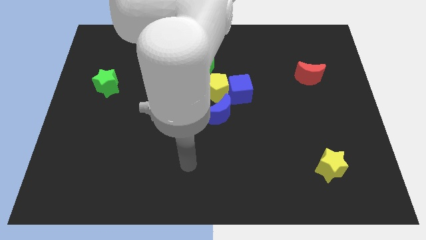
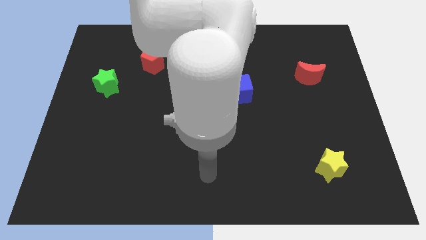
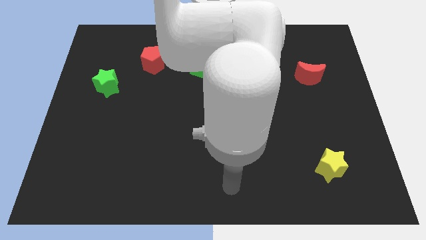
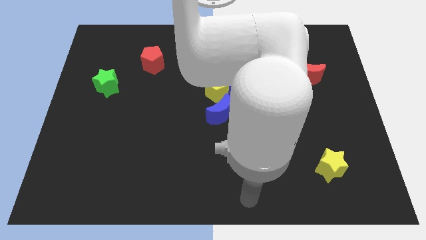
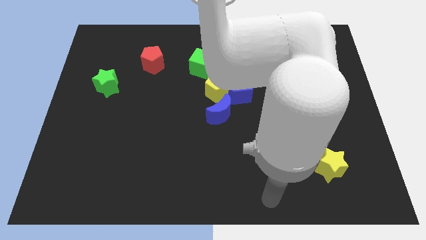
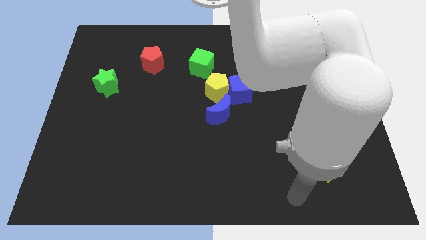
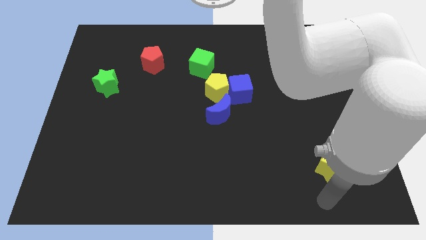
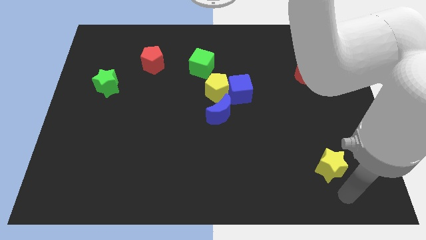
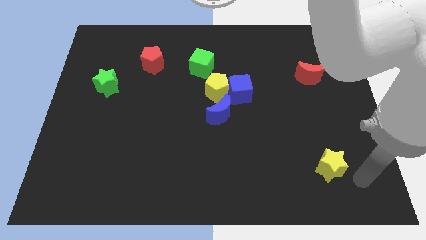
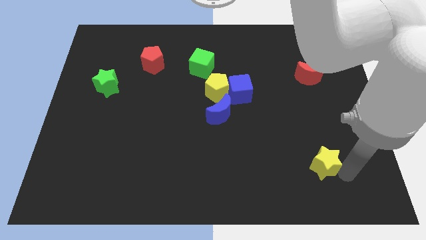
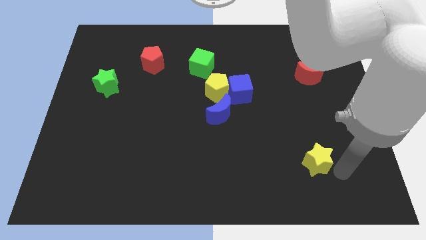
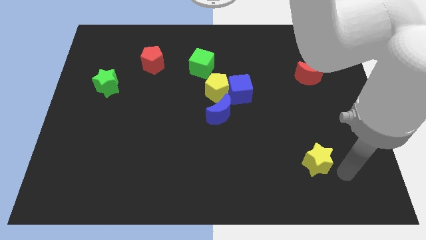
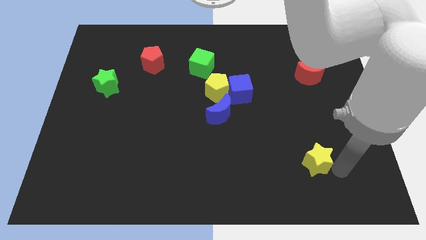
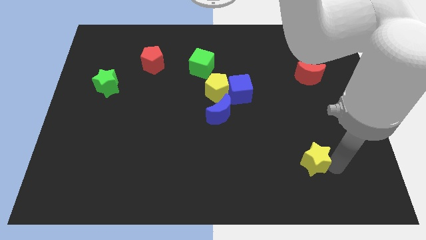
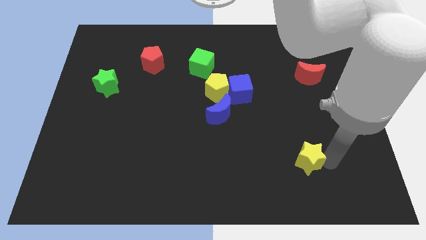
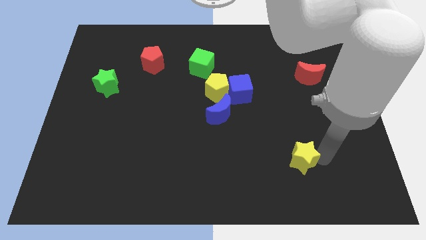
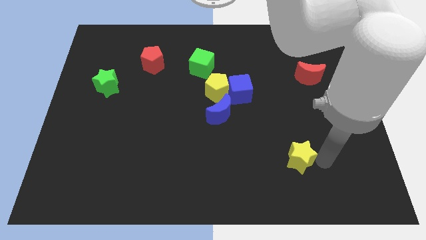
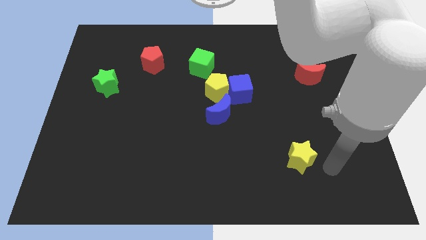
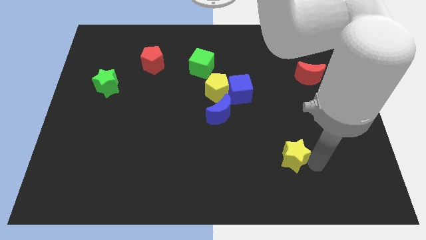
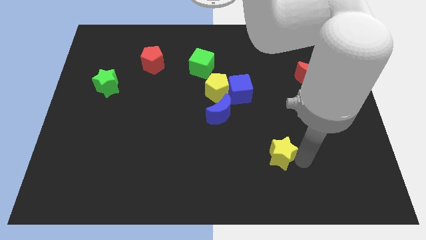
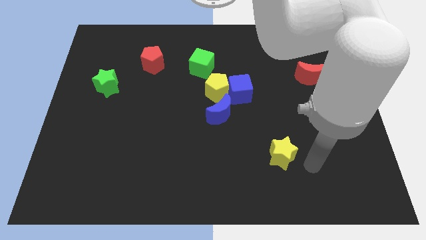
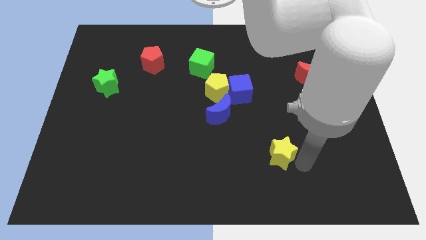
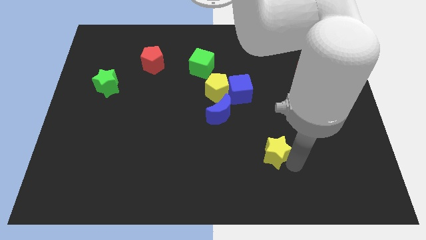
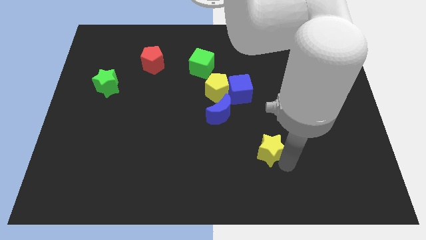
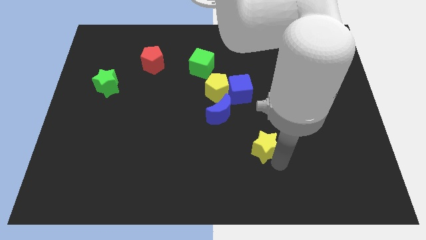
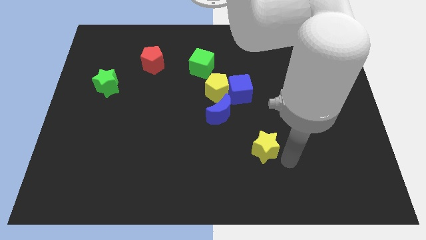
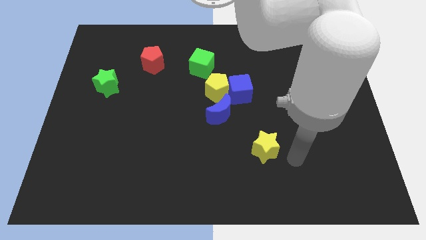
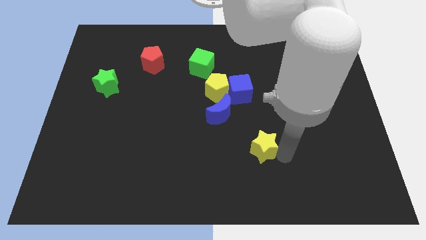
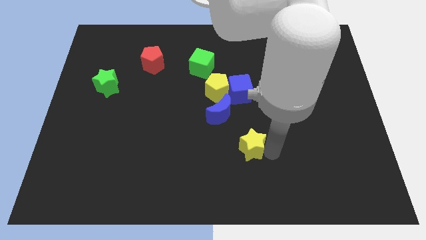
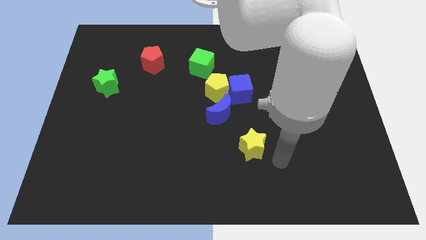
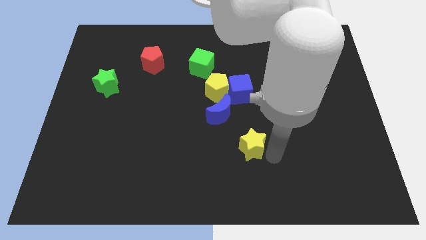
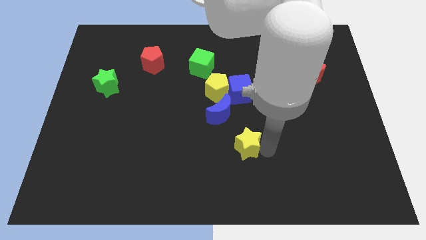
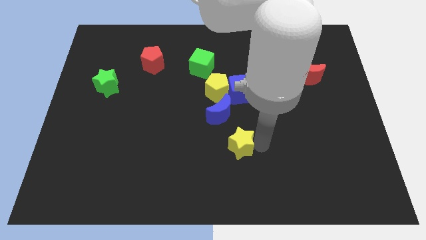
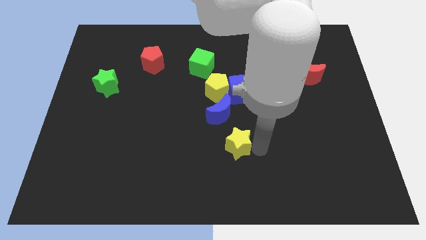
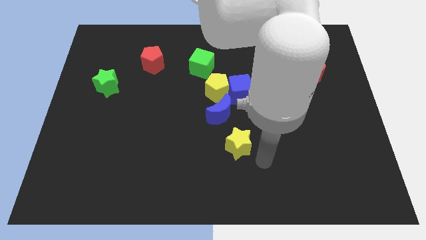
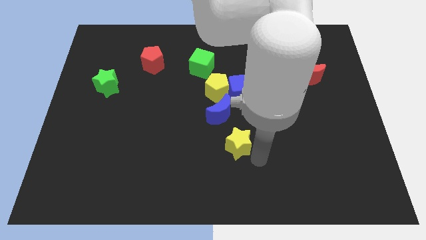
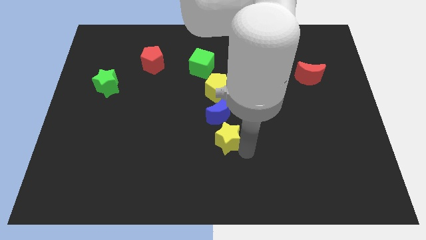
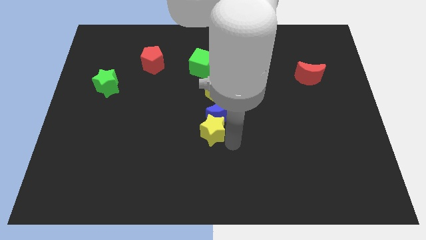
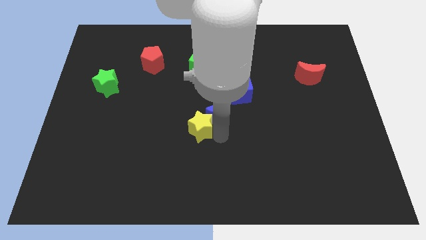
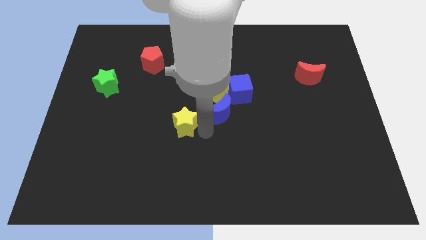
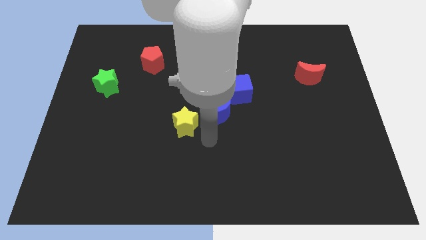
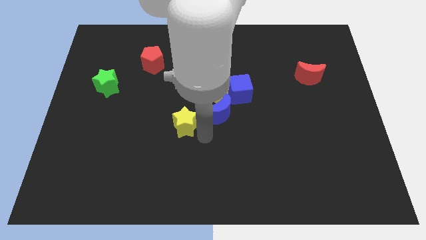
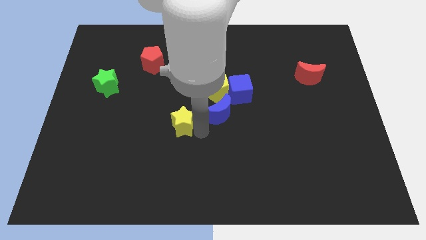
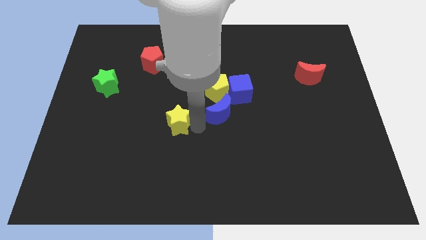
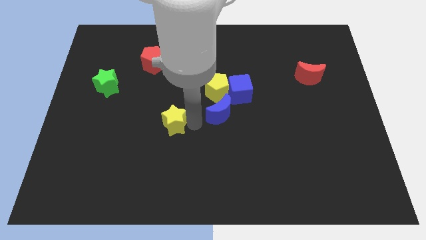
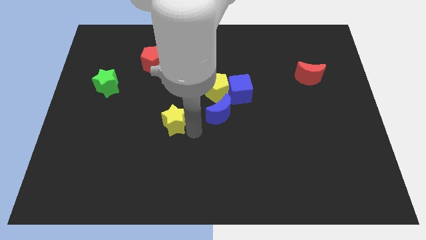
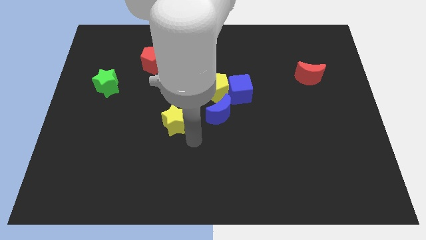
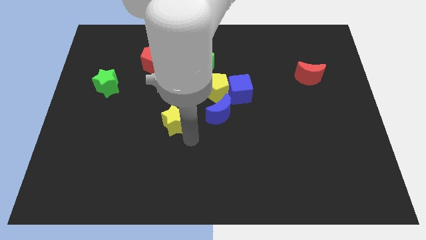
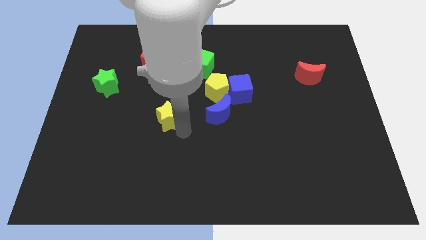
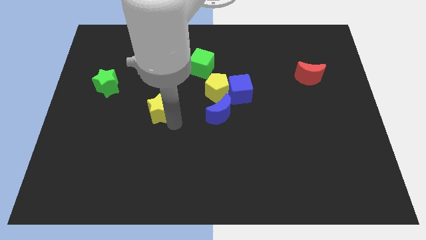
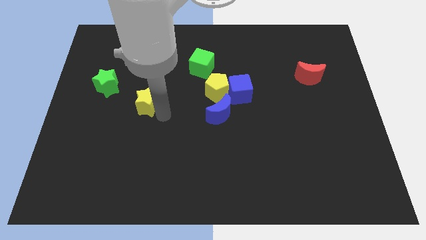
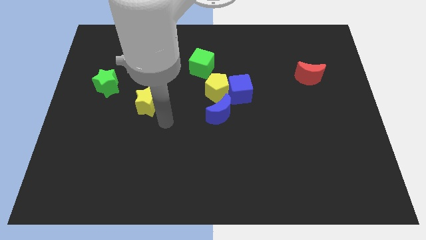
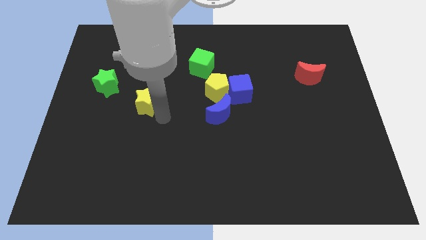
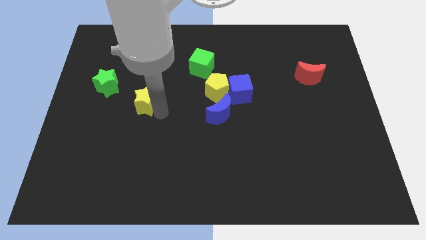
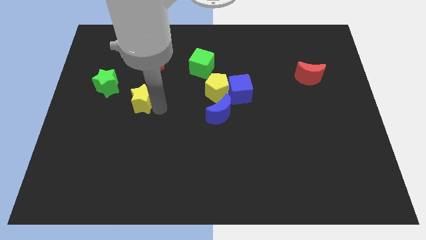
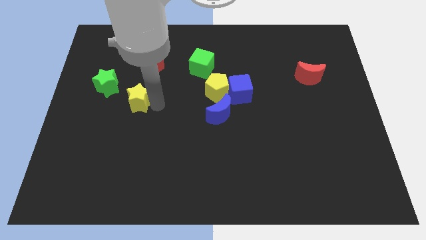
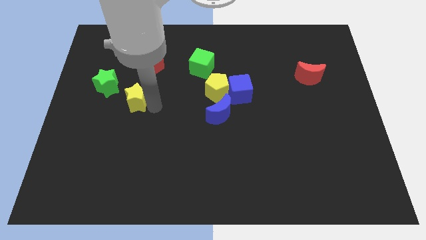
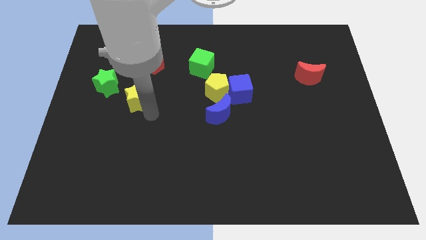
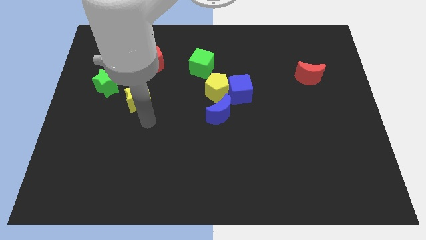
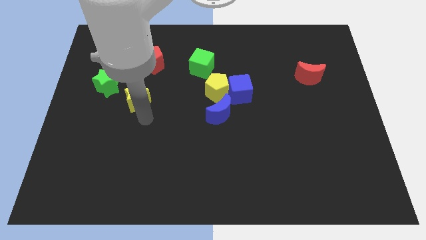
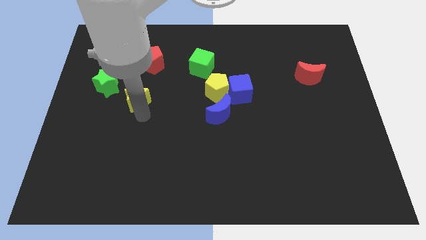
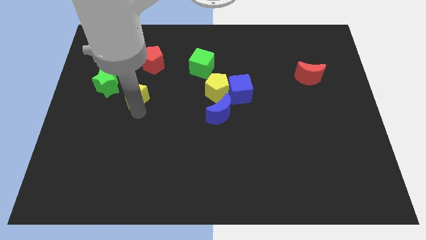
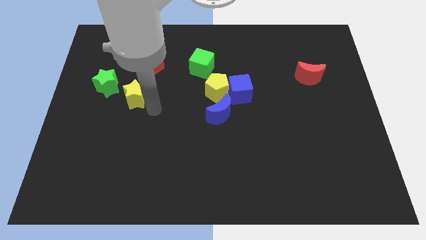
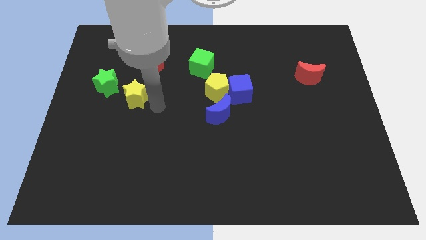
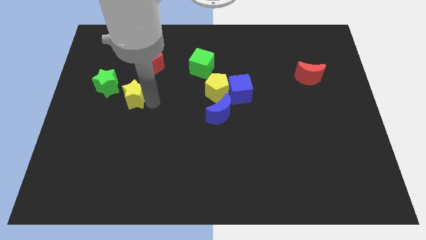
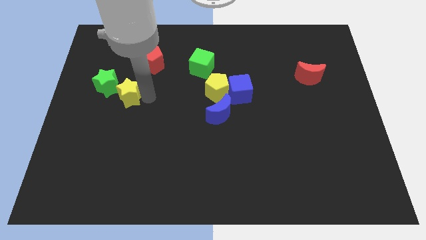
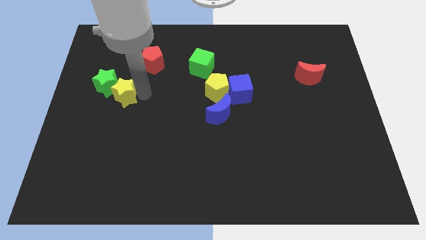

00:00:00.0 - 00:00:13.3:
move the yellow star towards the green star
